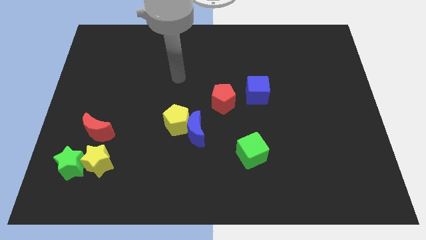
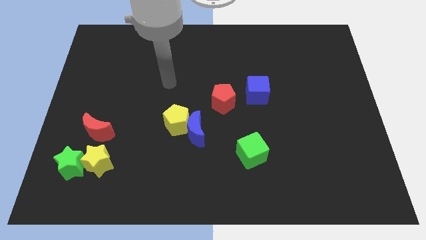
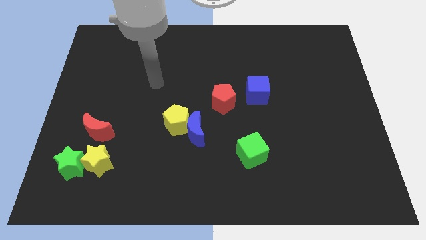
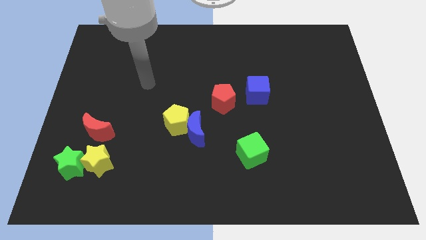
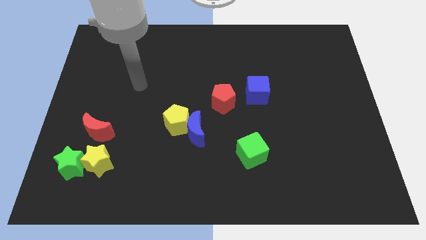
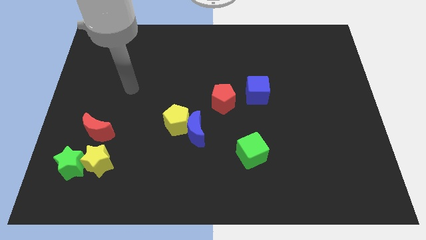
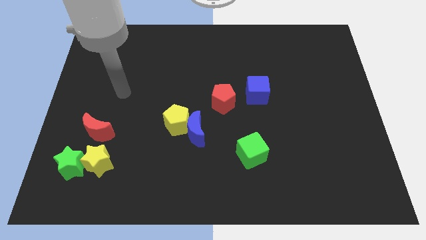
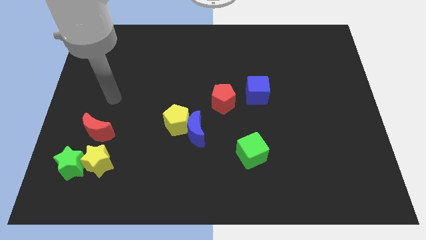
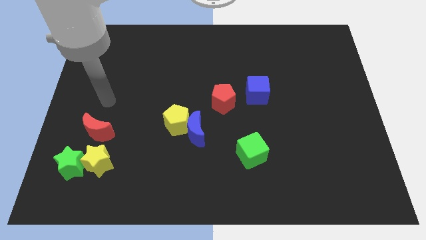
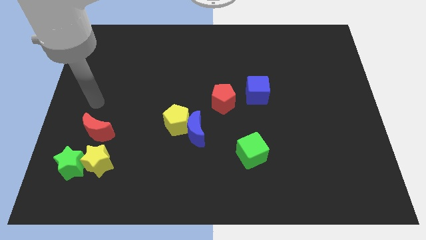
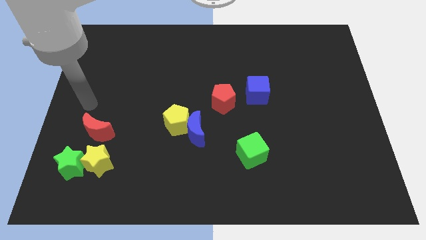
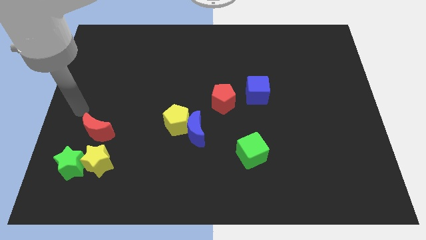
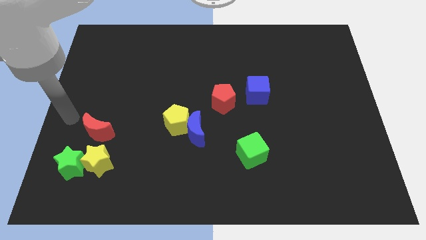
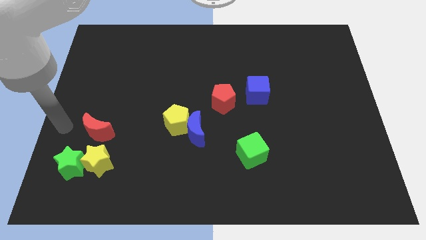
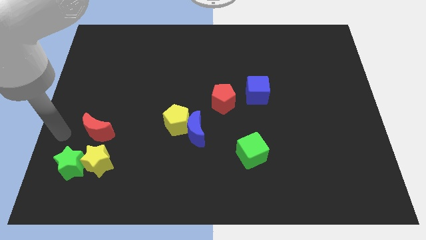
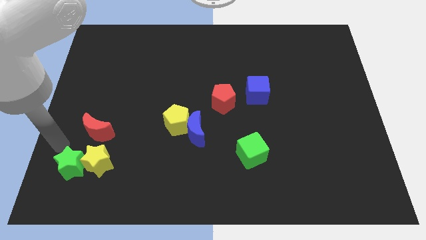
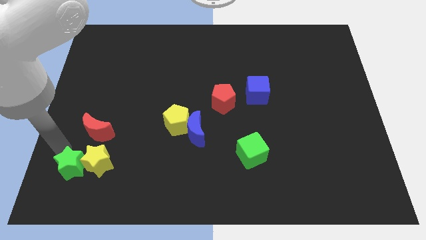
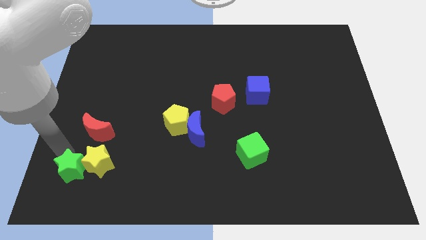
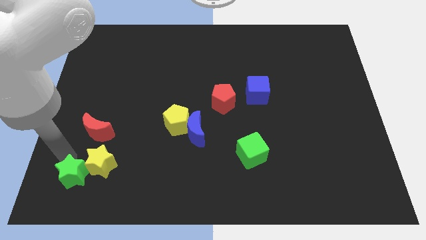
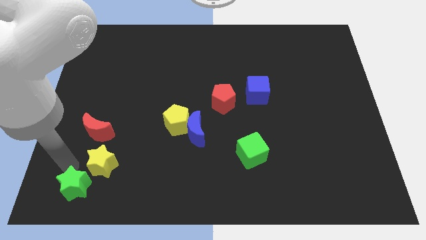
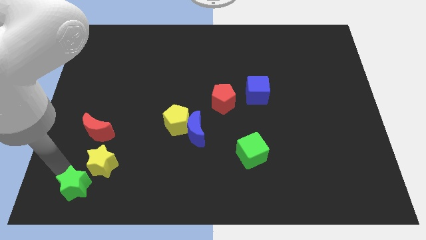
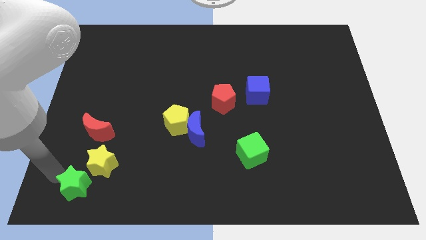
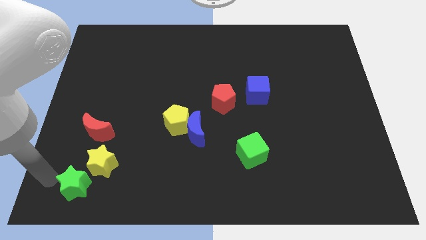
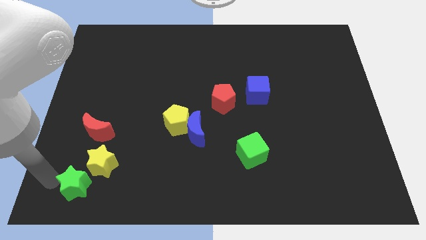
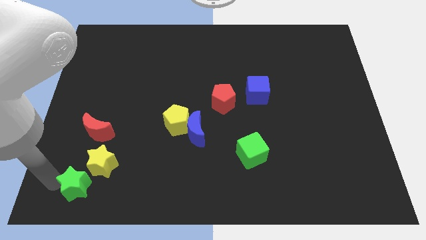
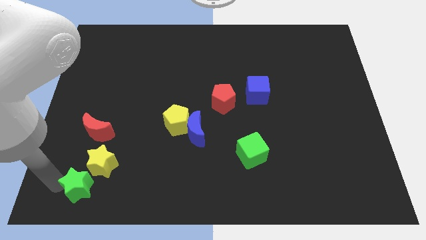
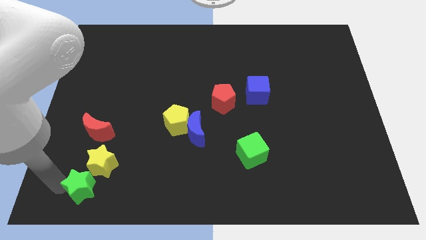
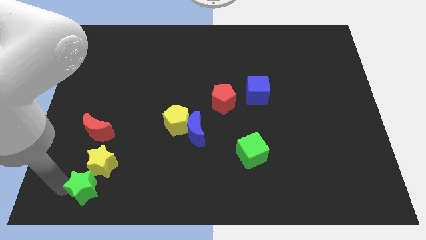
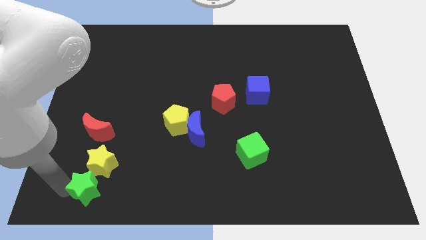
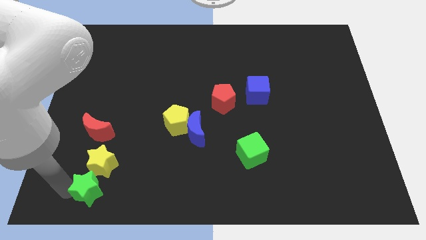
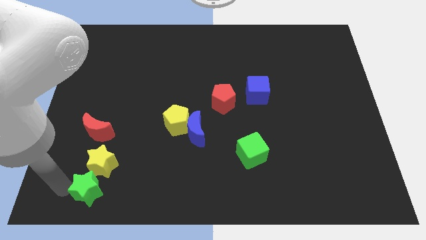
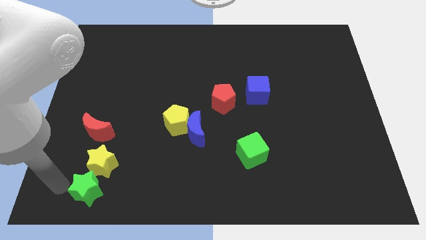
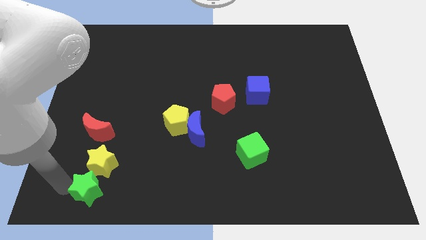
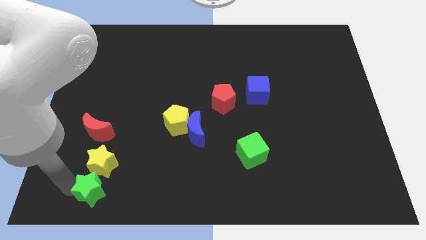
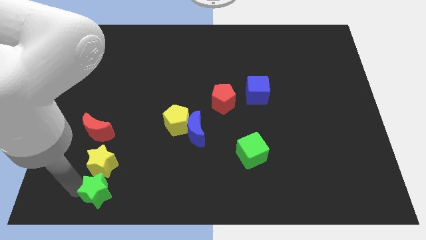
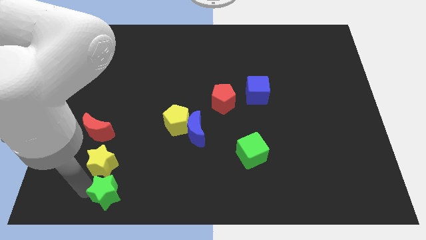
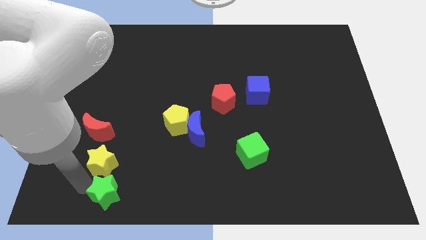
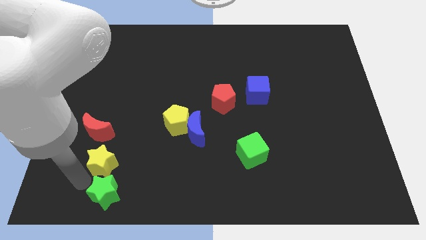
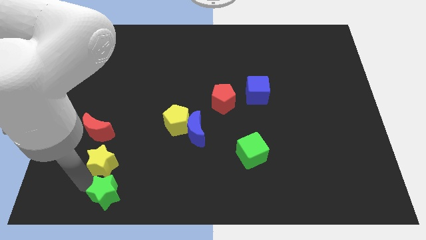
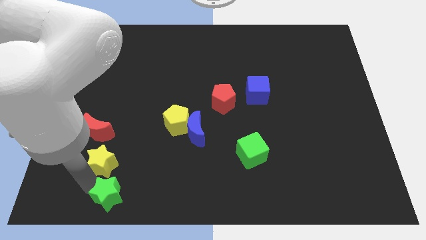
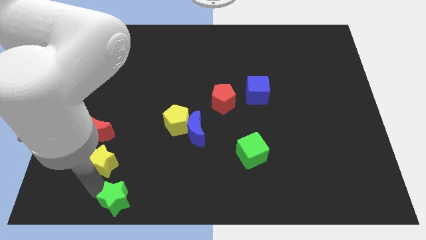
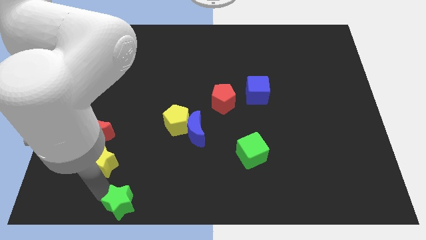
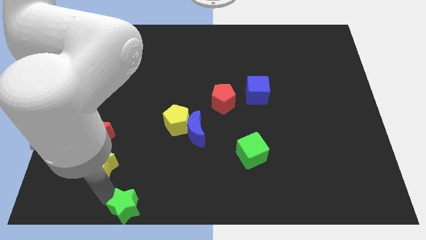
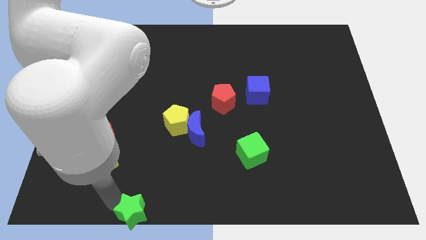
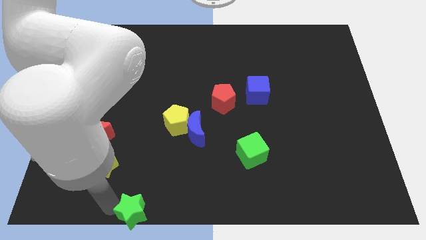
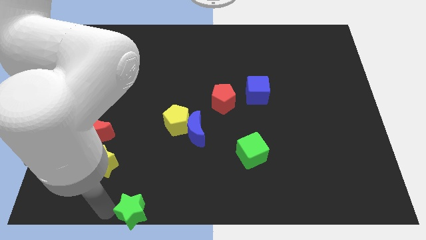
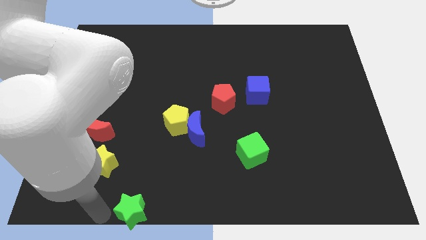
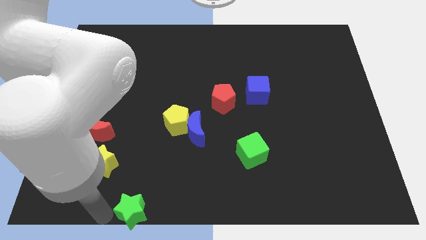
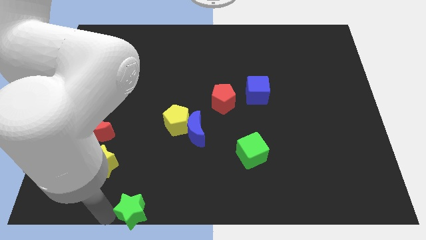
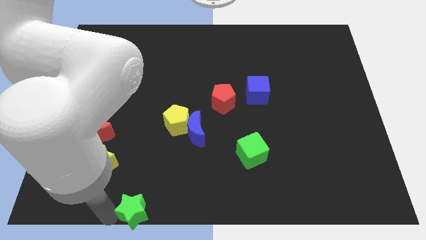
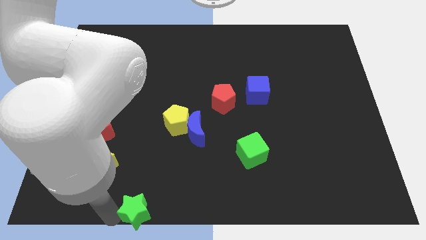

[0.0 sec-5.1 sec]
push the green star to the bottom side

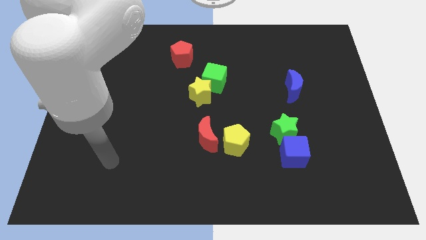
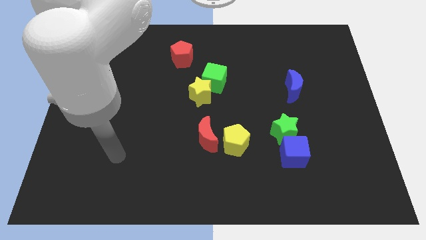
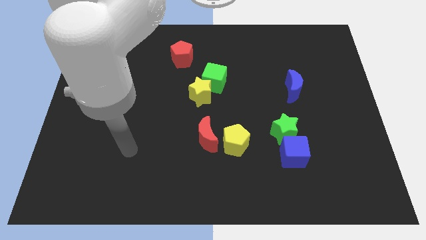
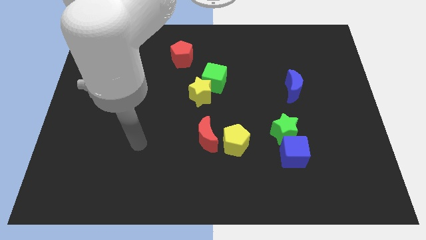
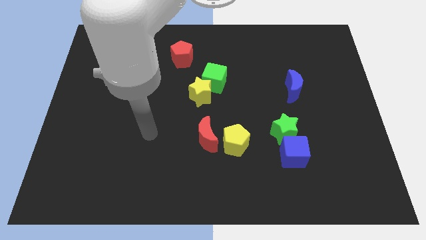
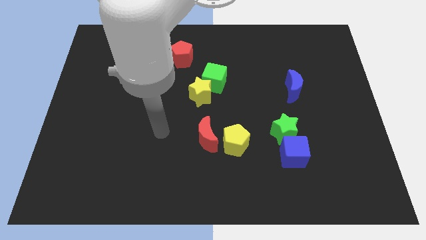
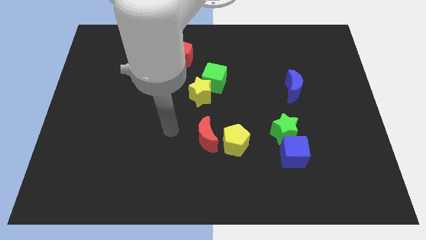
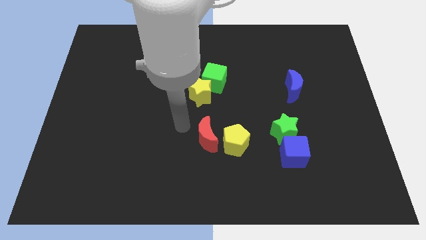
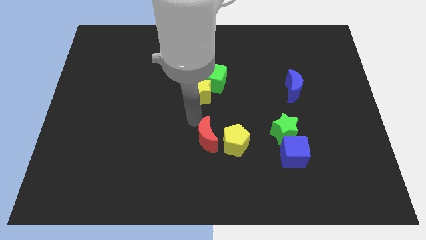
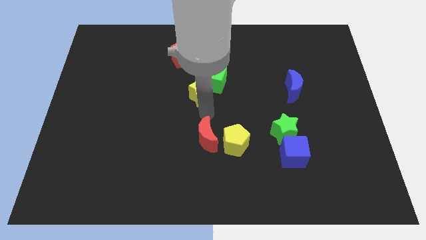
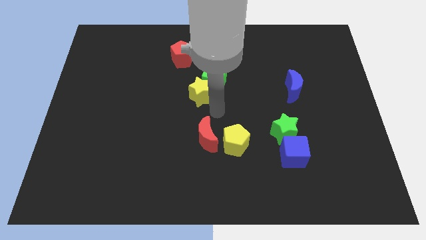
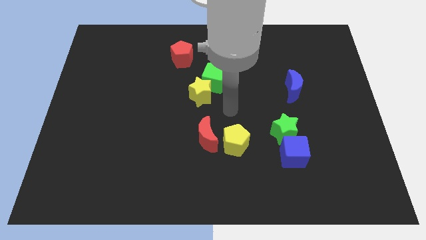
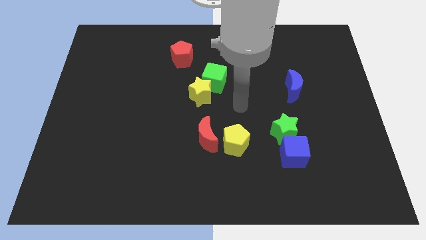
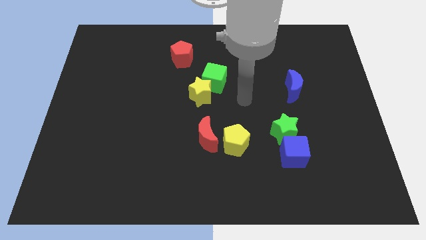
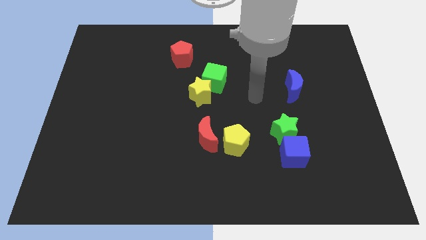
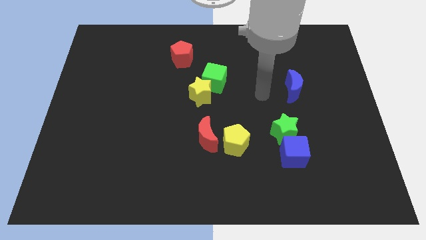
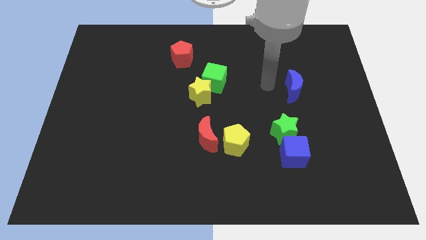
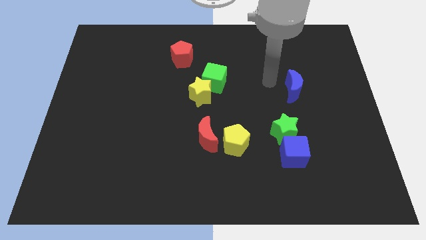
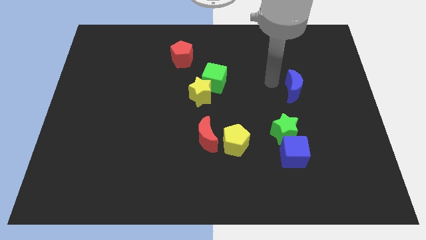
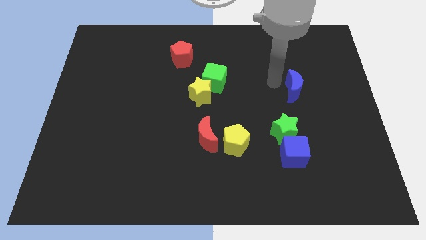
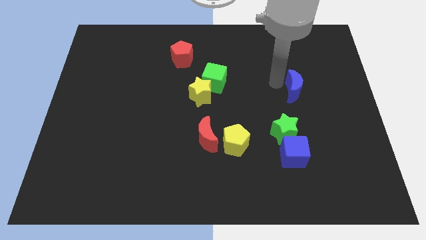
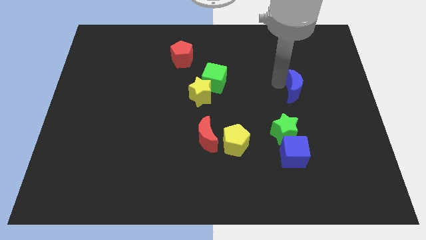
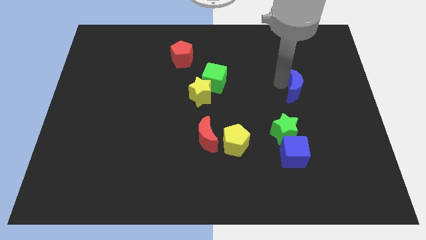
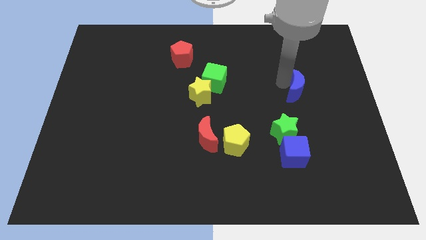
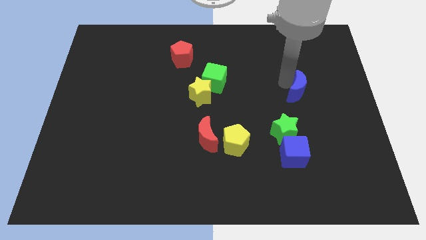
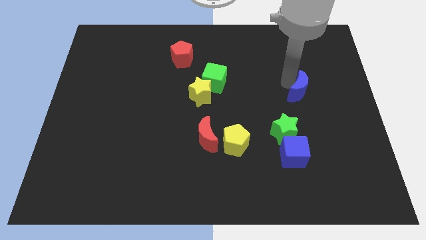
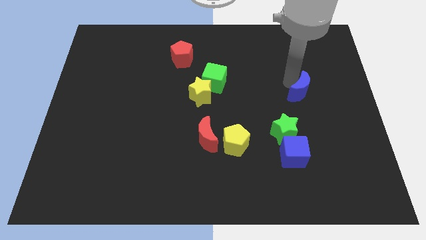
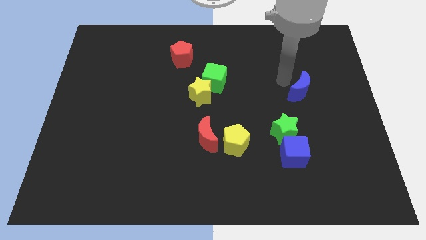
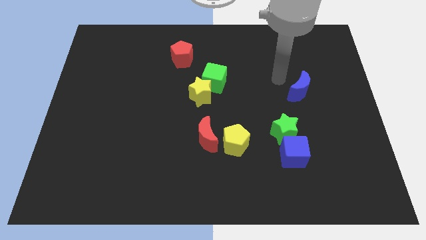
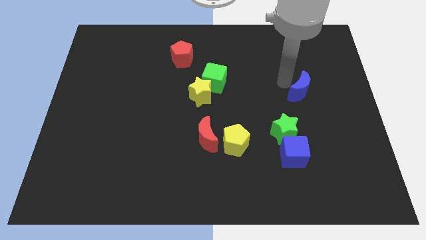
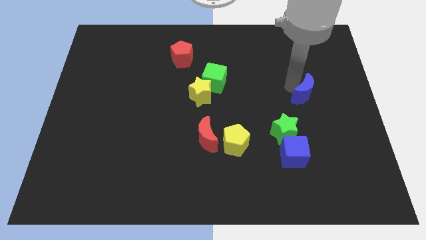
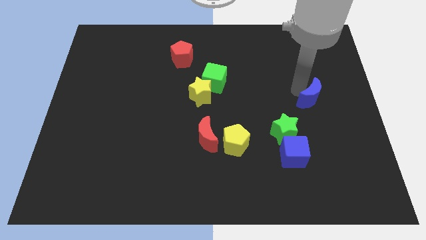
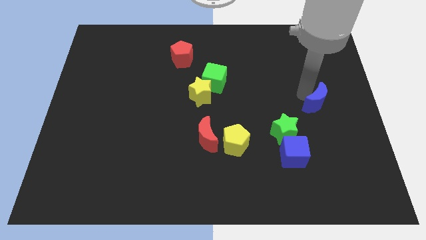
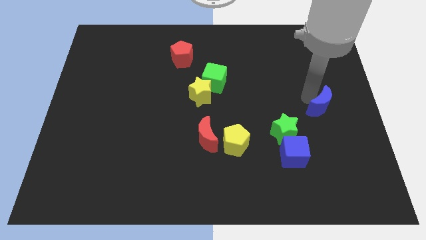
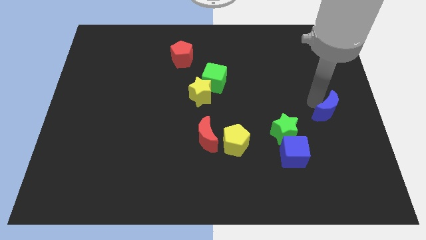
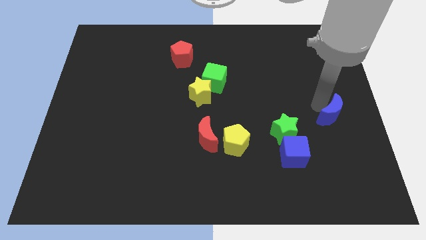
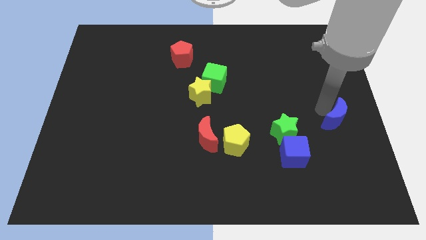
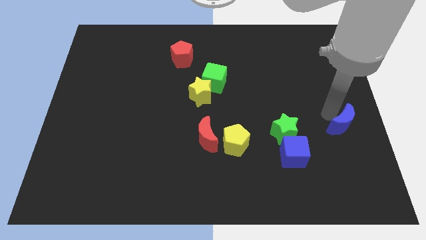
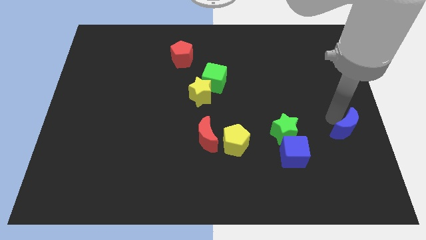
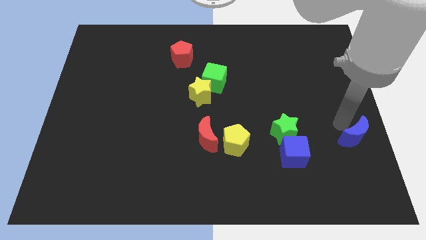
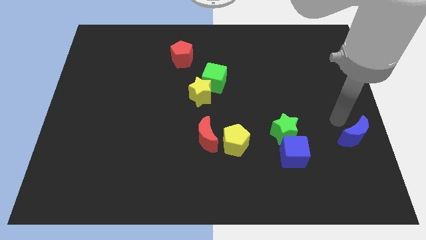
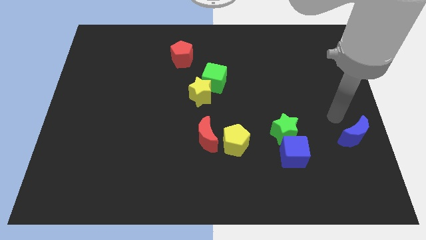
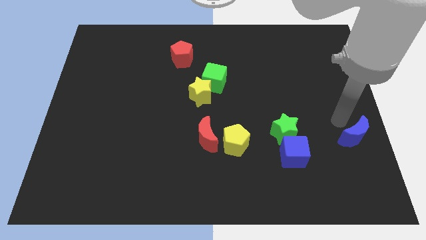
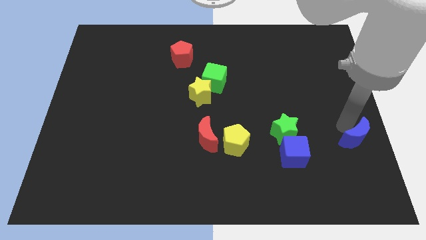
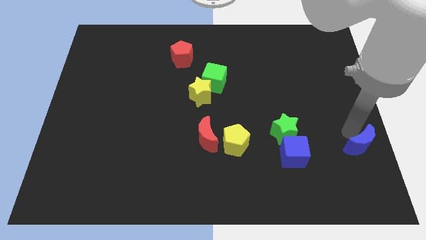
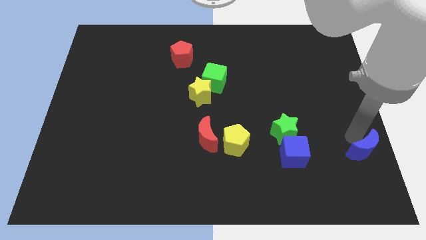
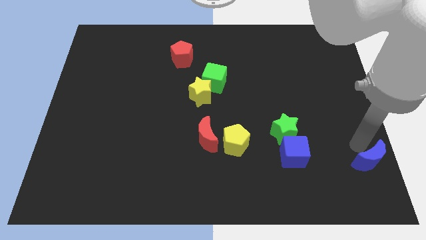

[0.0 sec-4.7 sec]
slide the blue moon to the lower right corner
